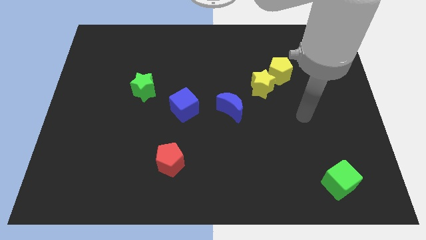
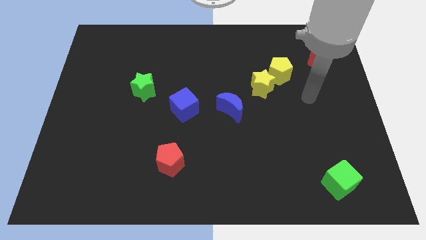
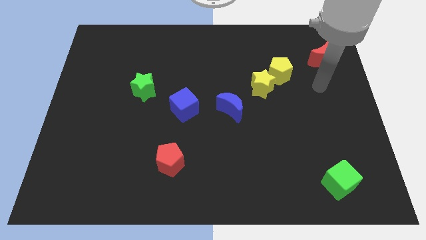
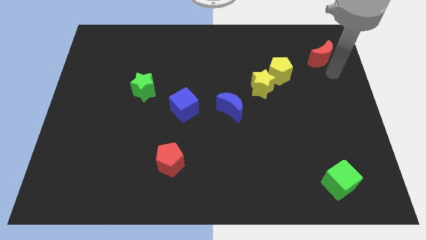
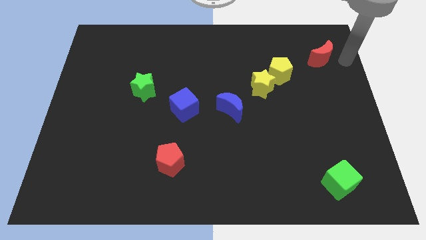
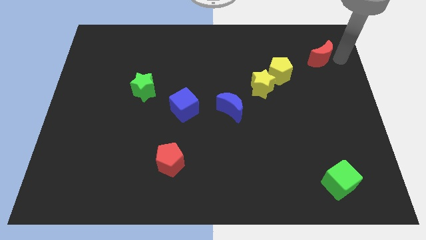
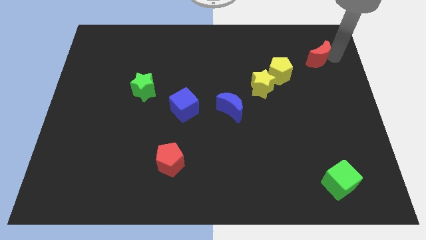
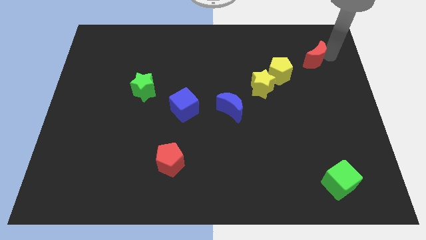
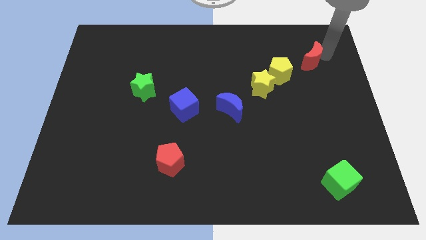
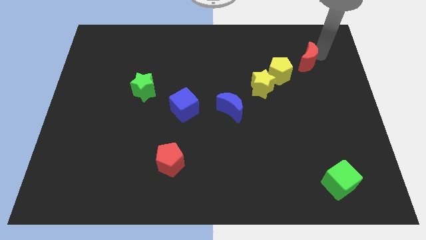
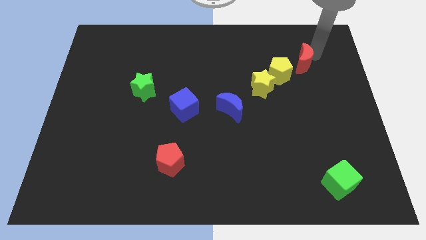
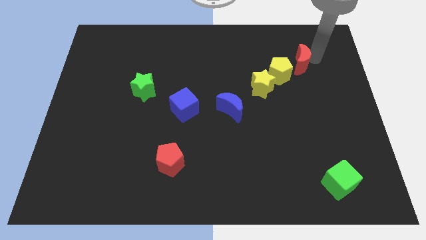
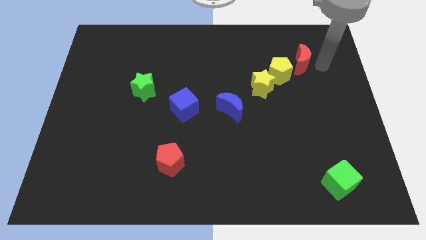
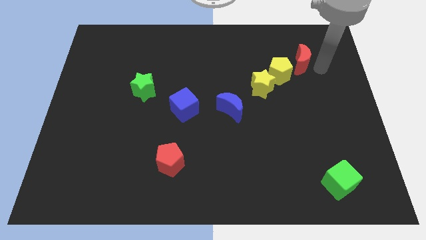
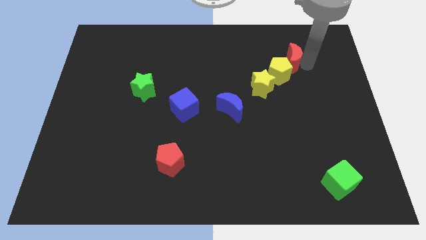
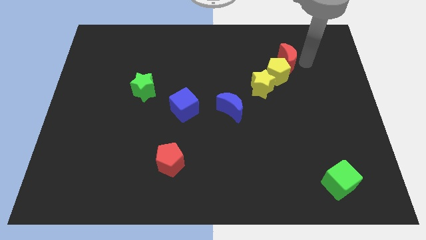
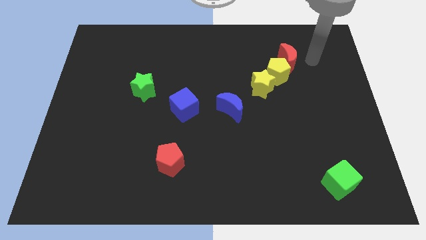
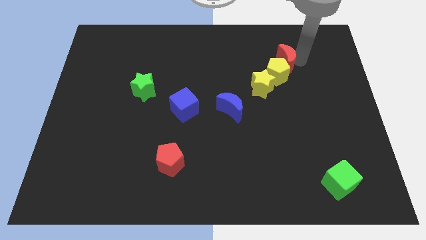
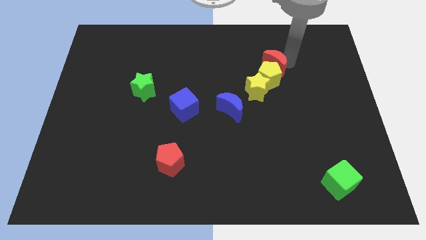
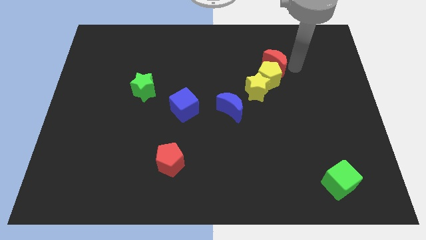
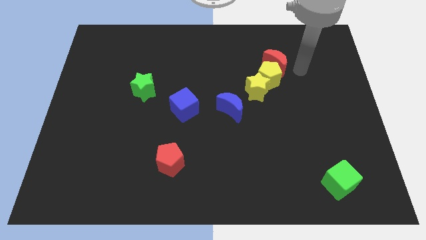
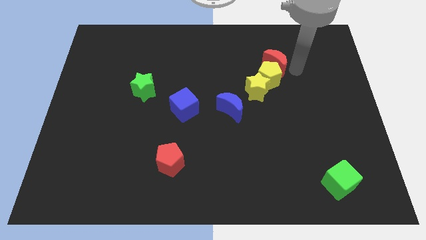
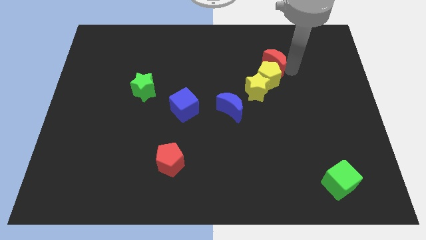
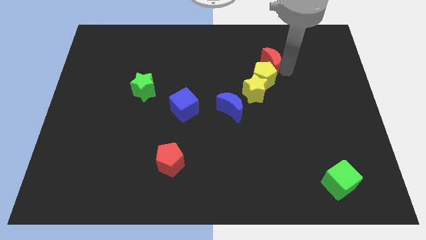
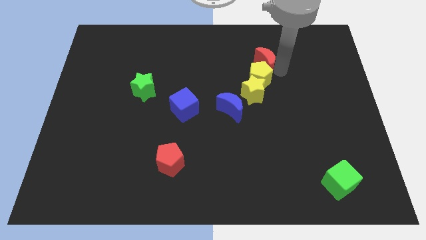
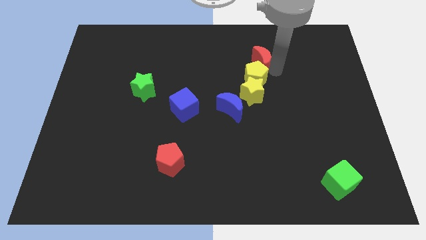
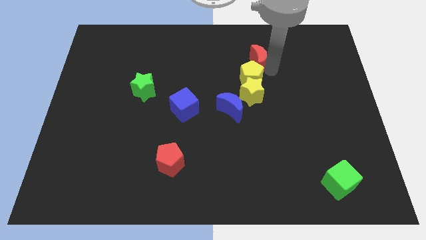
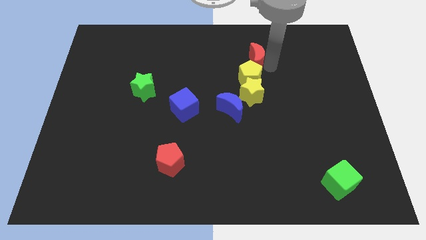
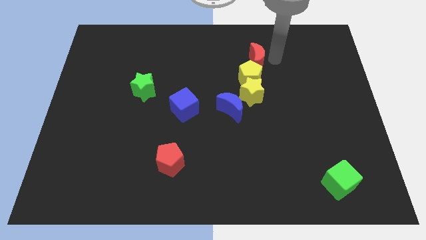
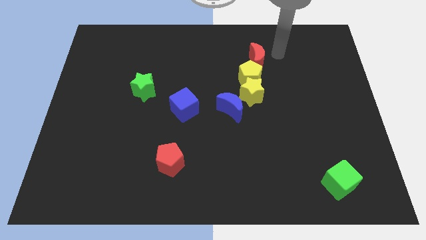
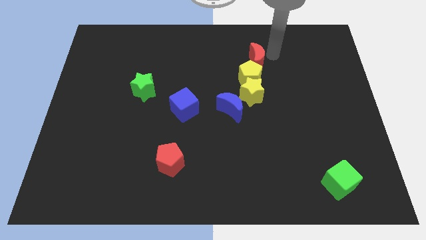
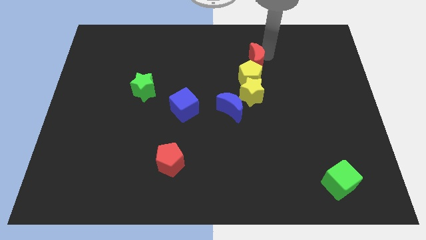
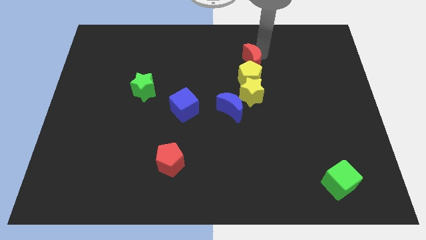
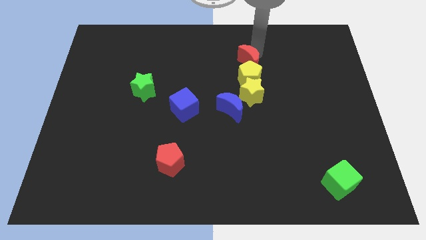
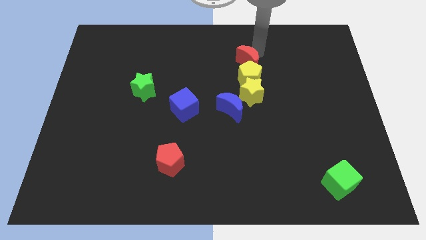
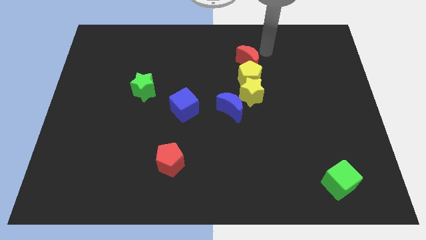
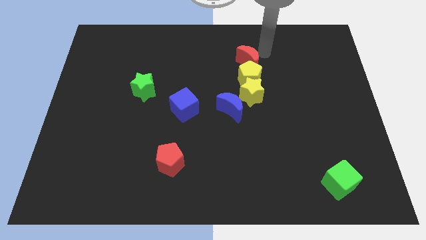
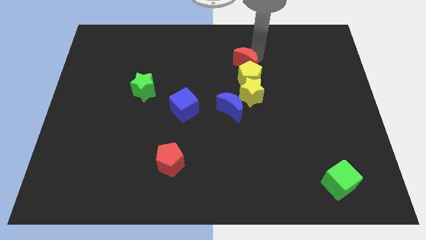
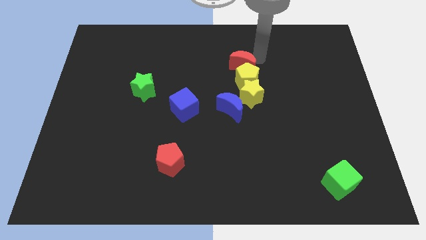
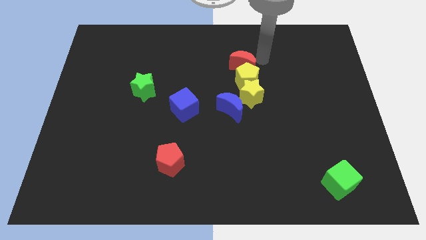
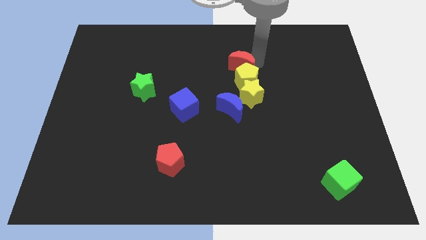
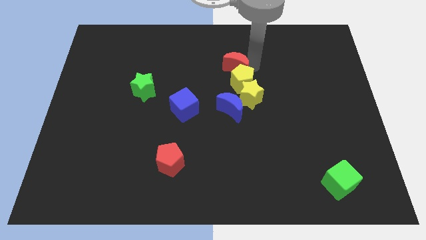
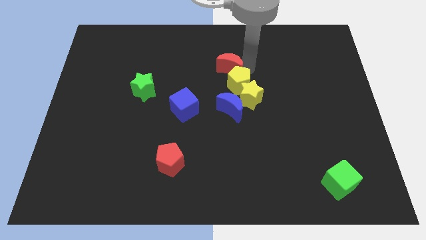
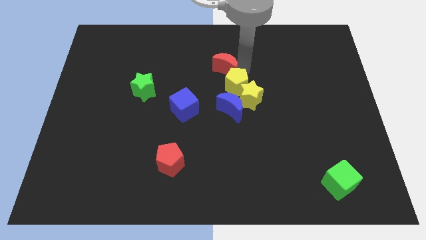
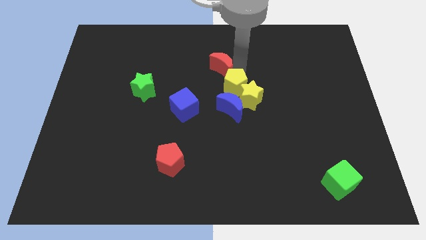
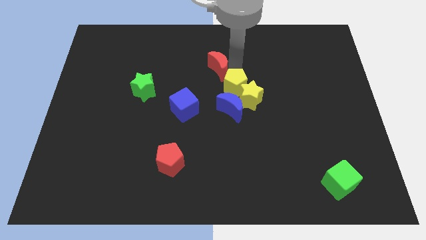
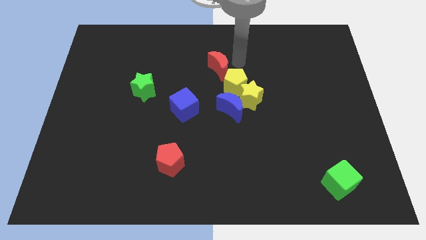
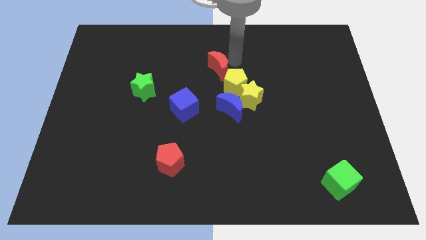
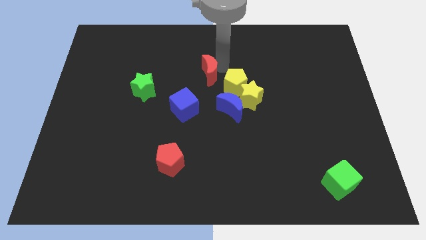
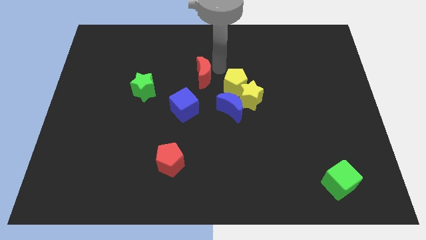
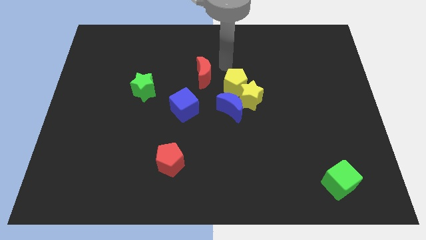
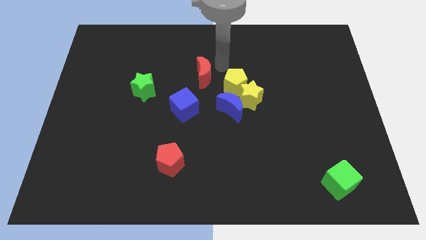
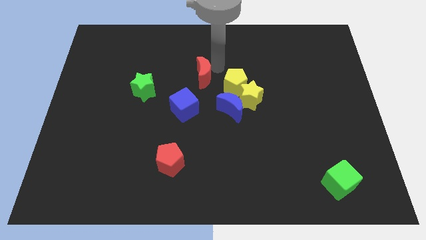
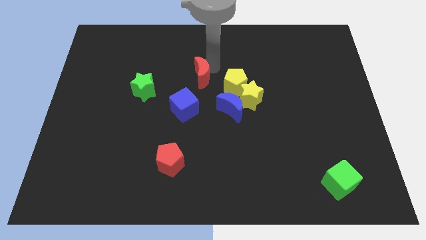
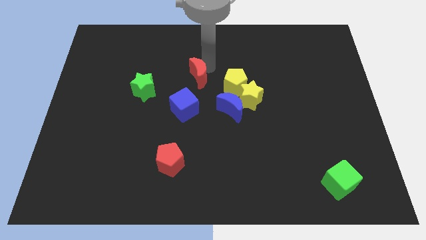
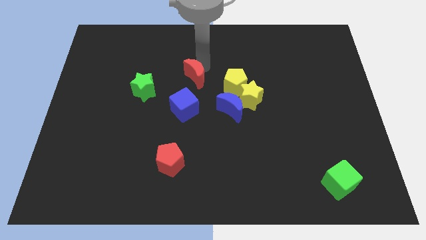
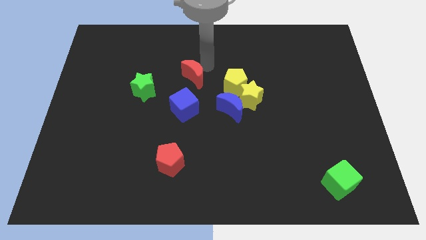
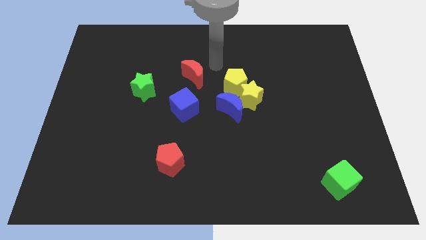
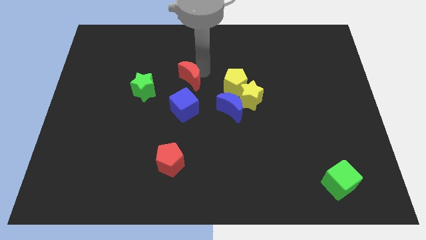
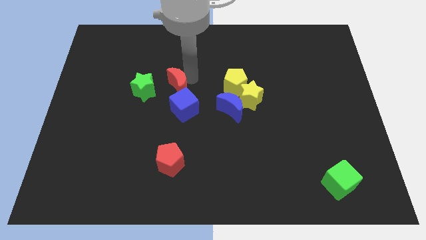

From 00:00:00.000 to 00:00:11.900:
move the red moon to the top left of the blue cube

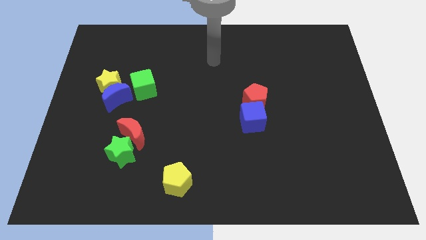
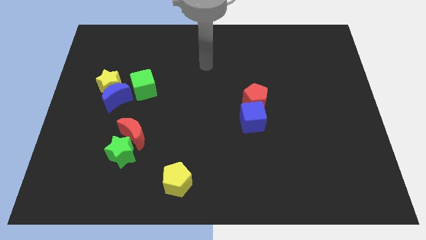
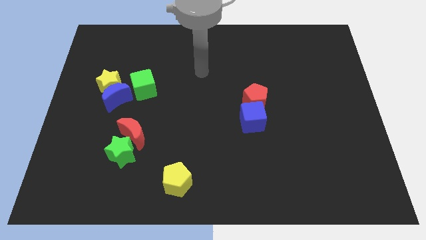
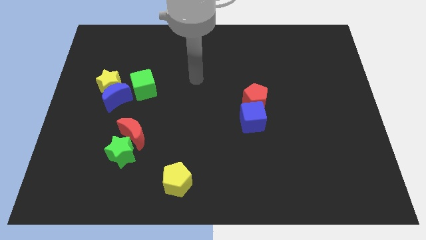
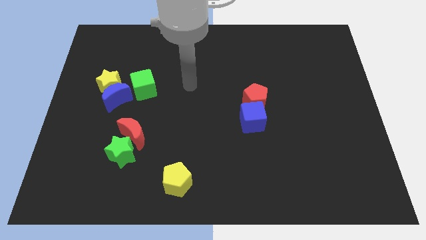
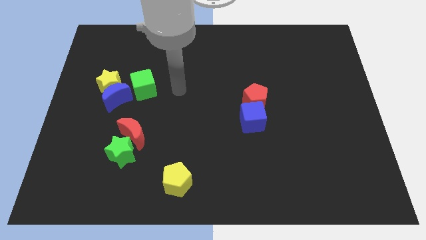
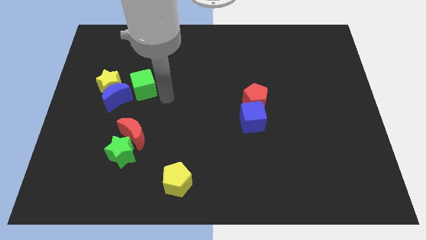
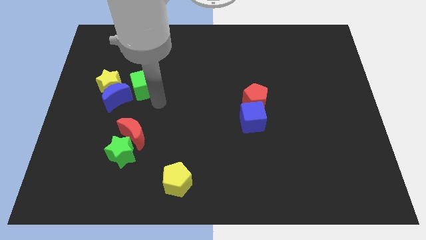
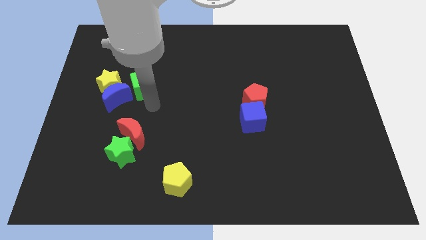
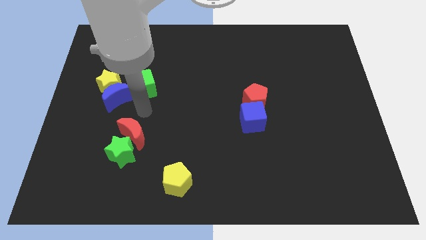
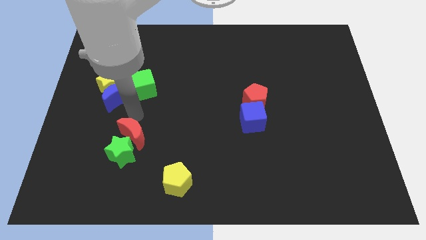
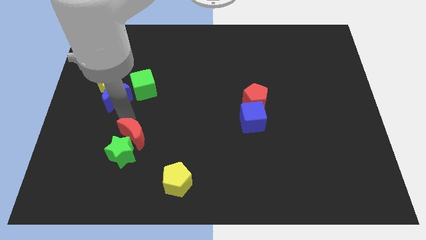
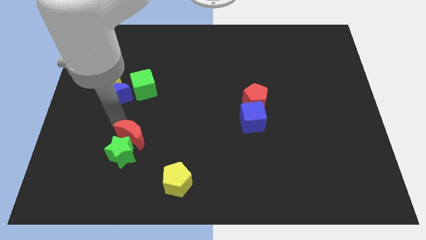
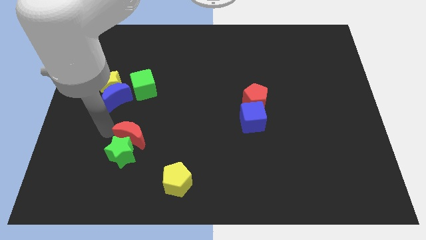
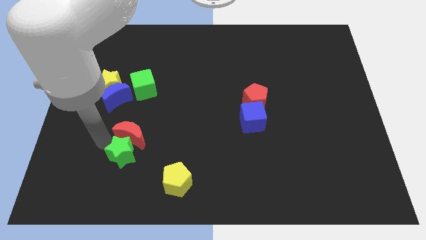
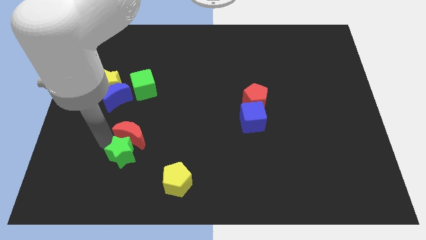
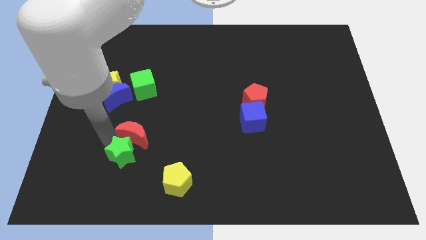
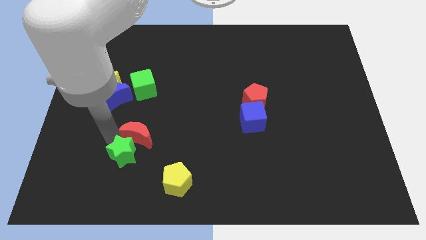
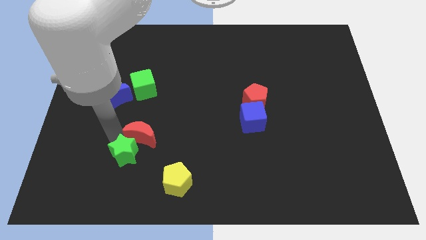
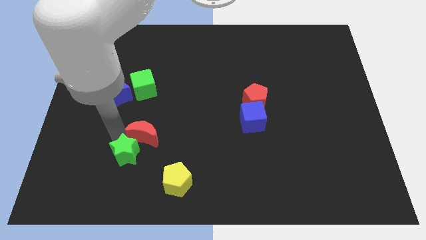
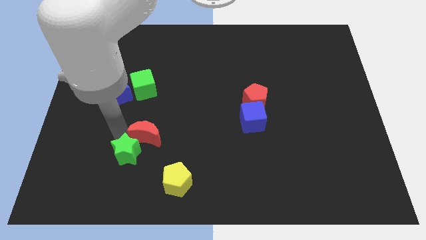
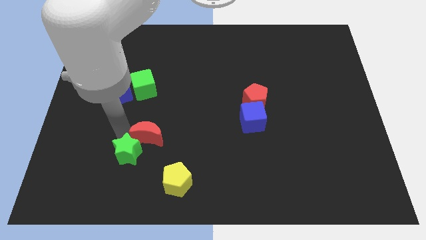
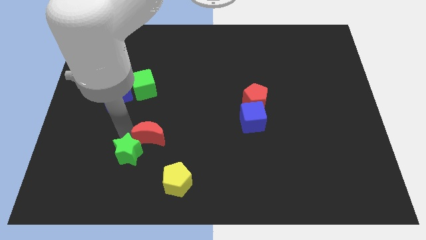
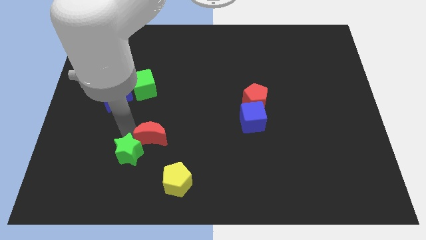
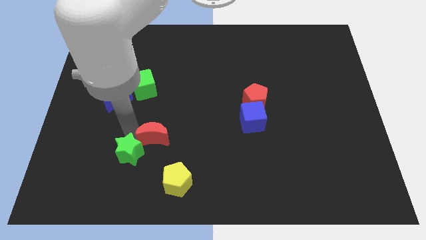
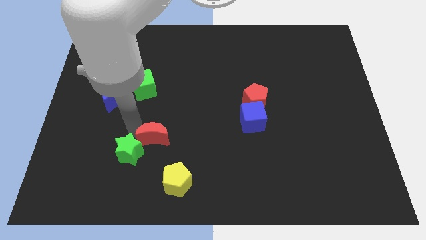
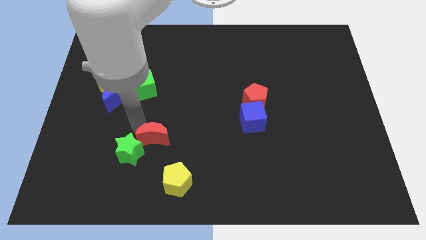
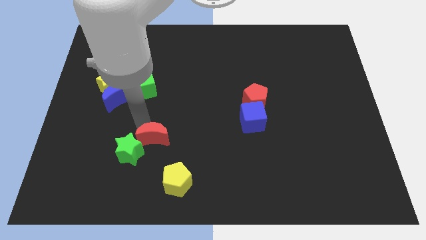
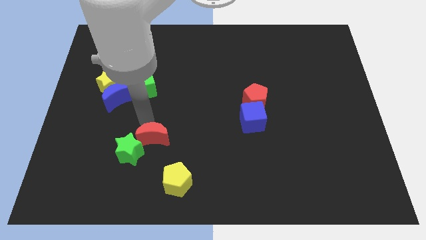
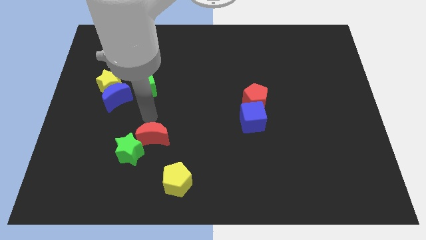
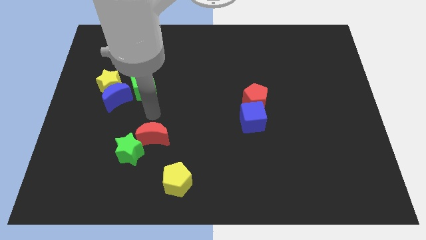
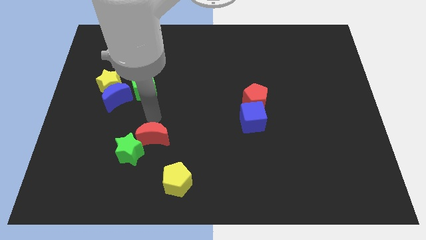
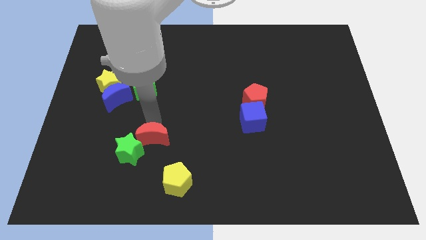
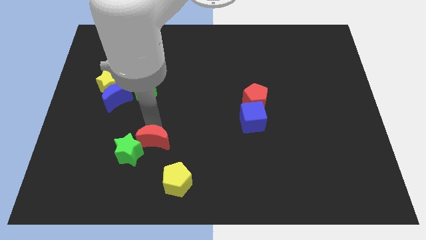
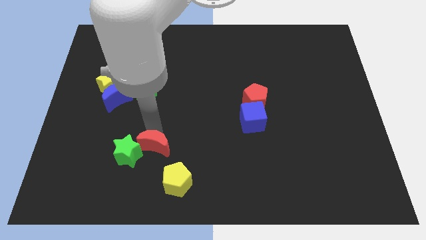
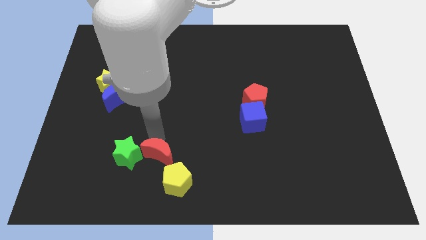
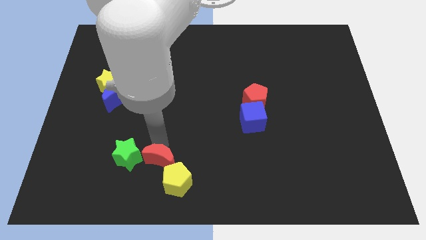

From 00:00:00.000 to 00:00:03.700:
put the red moon to the bottom right of the green star
